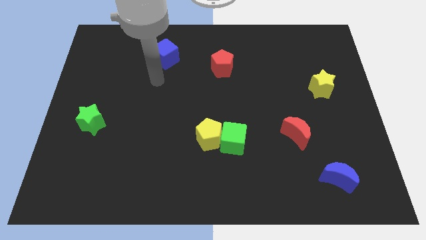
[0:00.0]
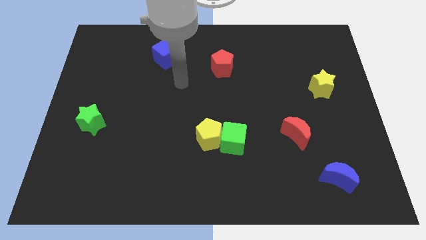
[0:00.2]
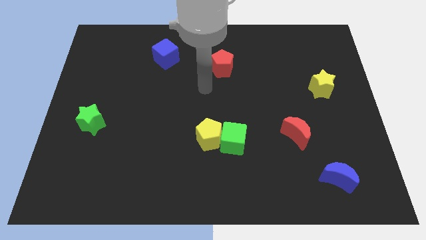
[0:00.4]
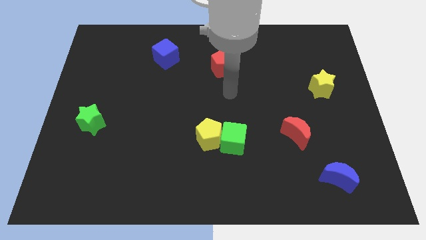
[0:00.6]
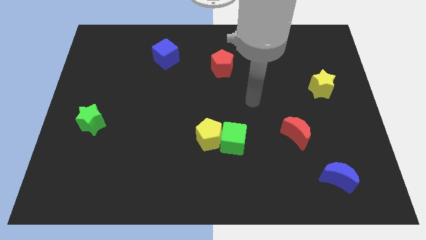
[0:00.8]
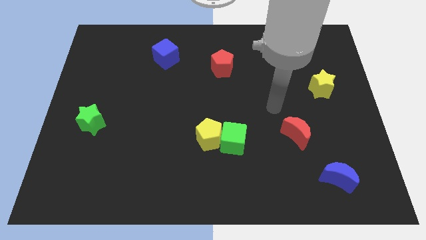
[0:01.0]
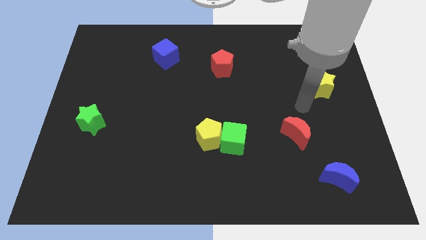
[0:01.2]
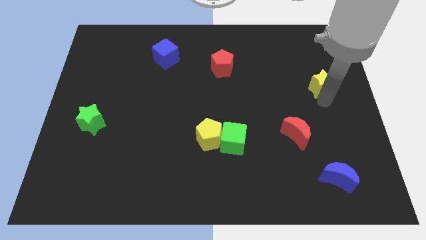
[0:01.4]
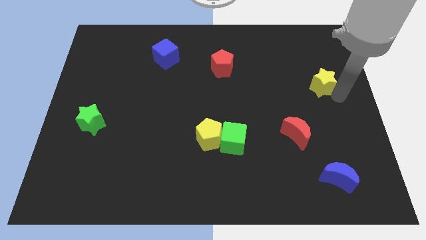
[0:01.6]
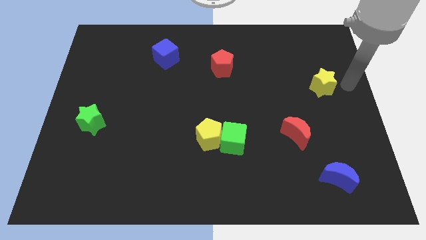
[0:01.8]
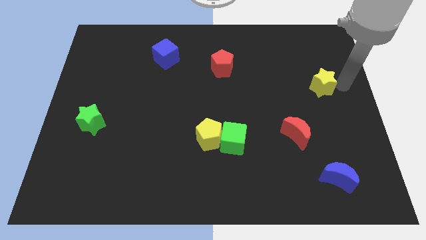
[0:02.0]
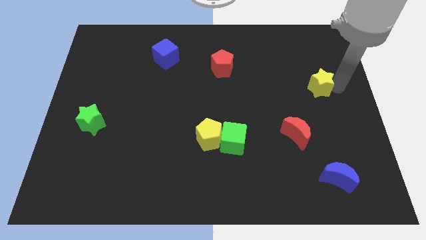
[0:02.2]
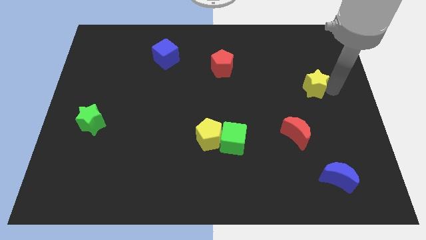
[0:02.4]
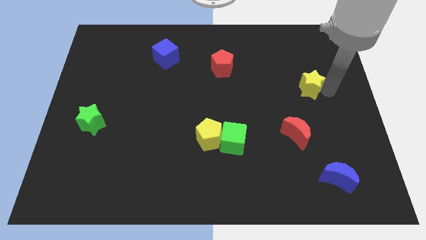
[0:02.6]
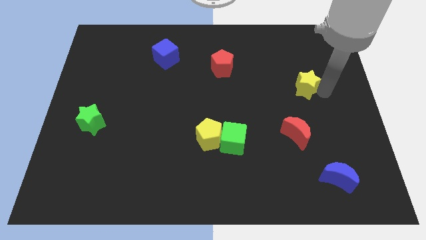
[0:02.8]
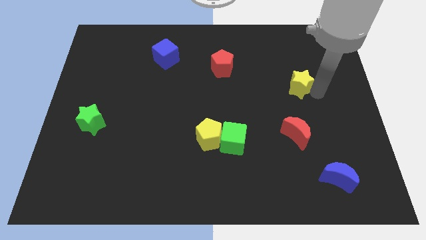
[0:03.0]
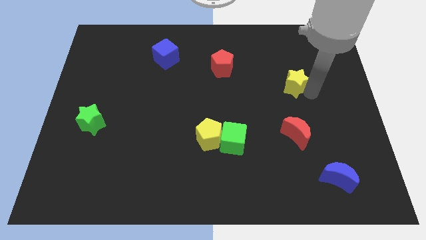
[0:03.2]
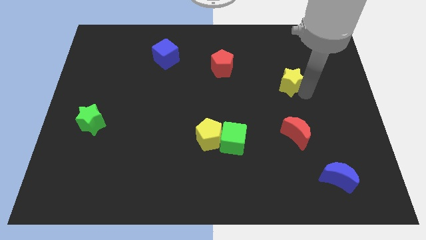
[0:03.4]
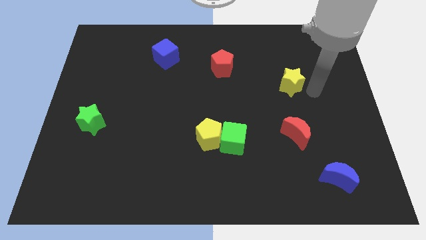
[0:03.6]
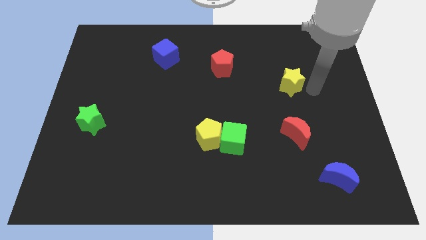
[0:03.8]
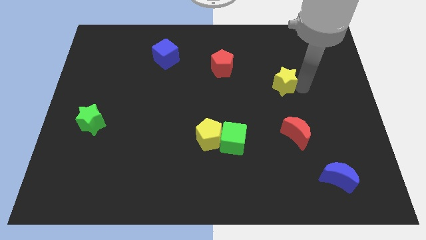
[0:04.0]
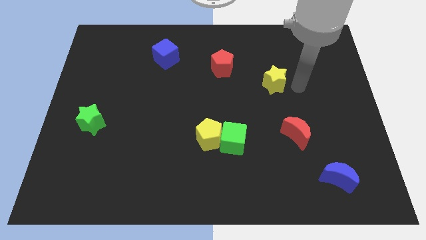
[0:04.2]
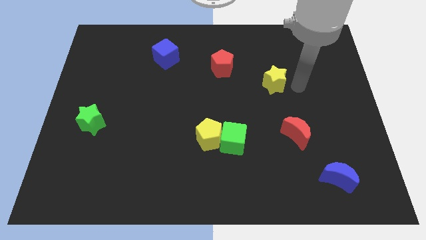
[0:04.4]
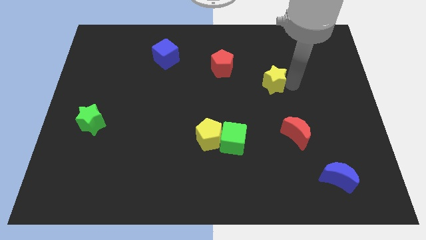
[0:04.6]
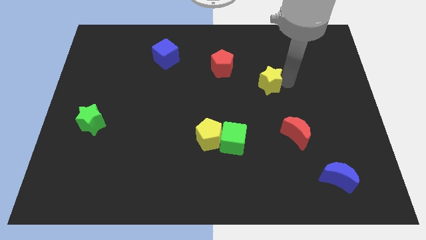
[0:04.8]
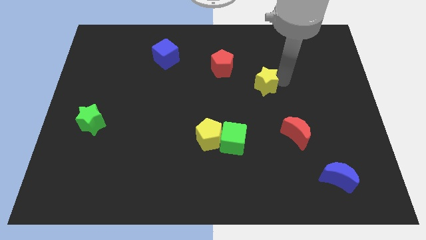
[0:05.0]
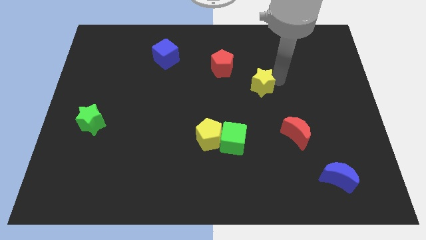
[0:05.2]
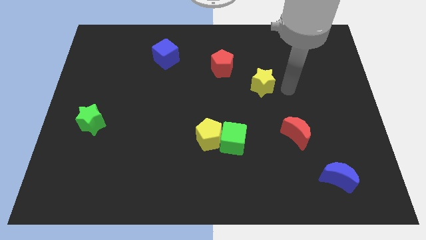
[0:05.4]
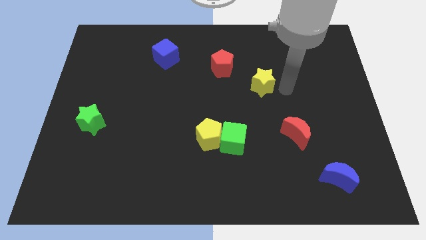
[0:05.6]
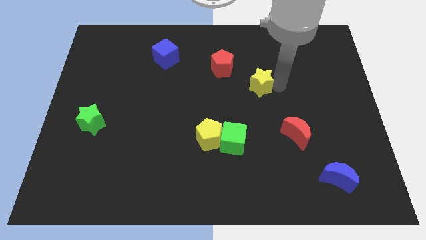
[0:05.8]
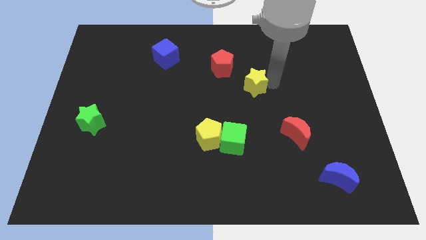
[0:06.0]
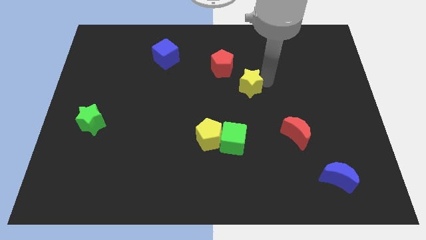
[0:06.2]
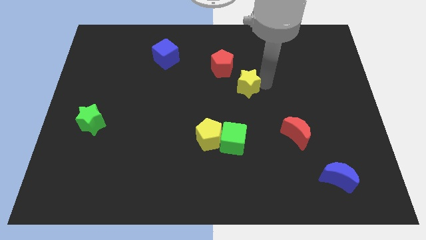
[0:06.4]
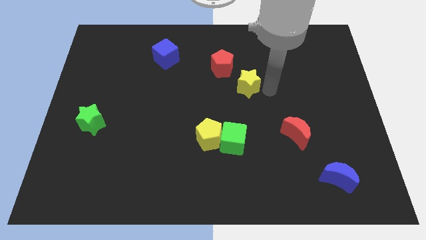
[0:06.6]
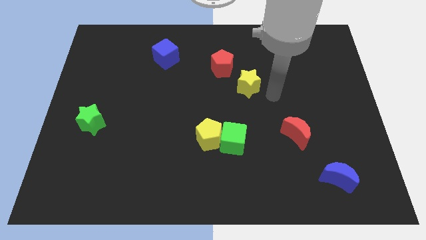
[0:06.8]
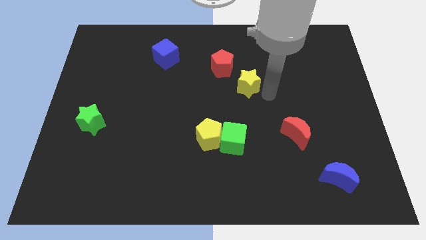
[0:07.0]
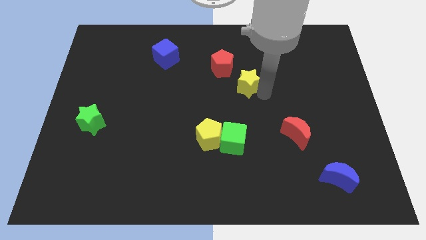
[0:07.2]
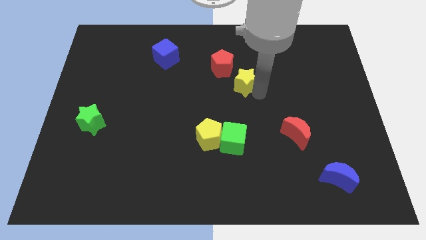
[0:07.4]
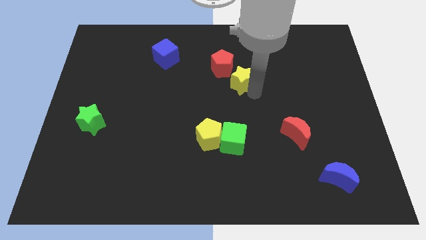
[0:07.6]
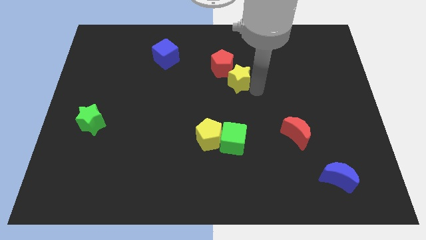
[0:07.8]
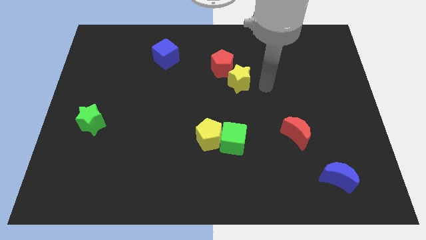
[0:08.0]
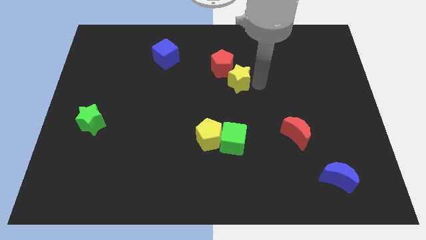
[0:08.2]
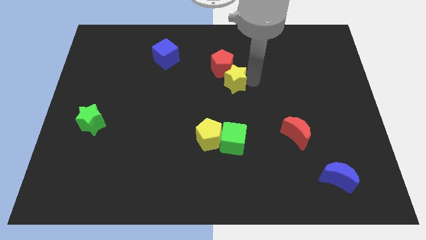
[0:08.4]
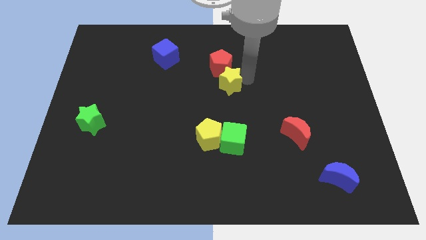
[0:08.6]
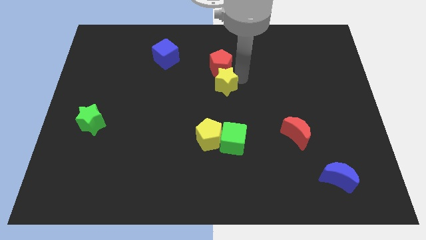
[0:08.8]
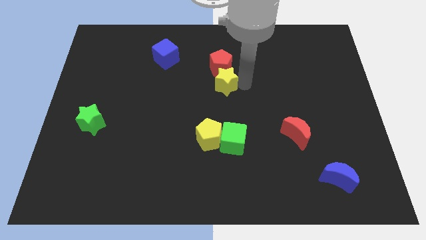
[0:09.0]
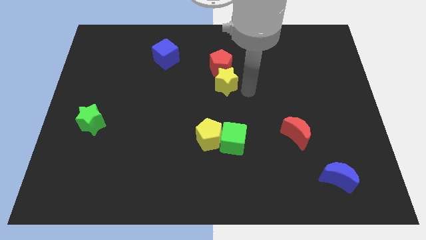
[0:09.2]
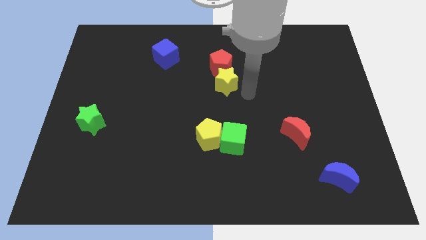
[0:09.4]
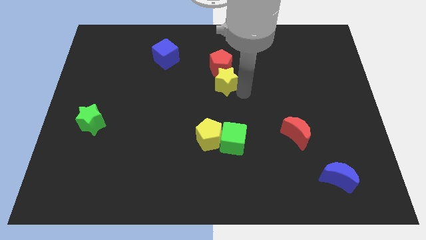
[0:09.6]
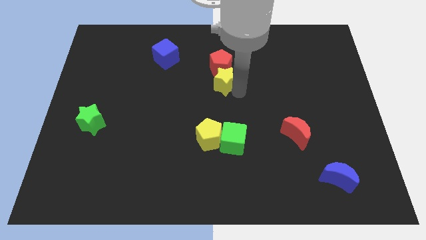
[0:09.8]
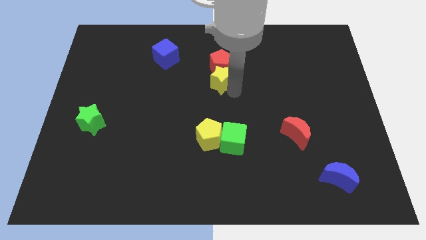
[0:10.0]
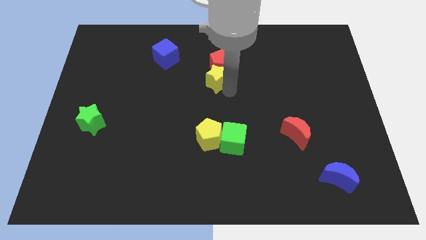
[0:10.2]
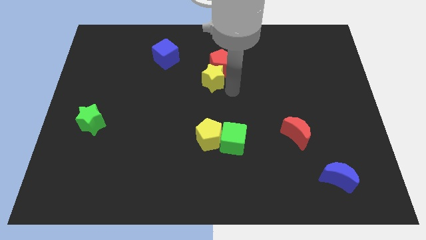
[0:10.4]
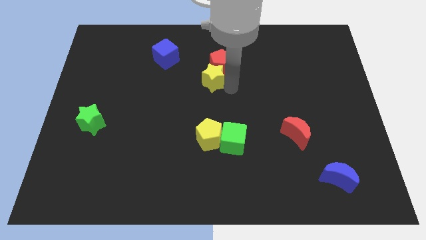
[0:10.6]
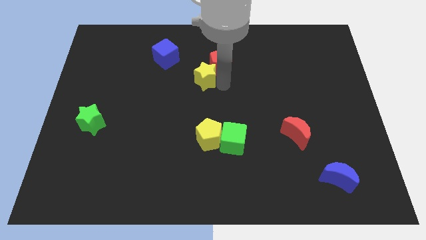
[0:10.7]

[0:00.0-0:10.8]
move the yellow star to the left side of the red pentagon

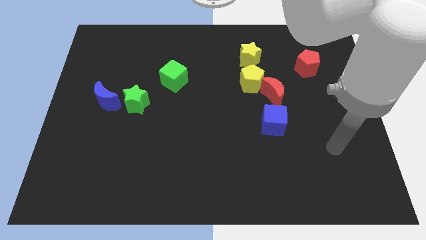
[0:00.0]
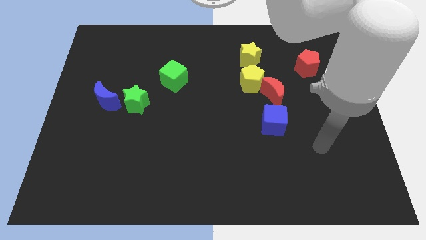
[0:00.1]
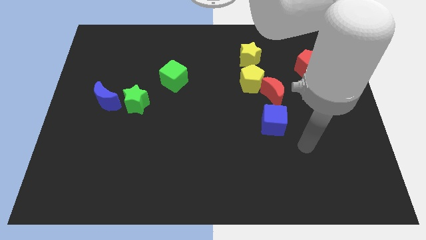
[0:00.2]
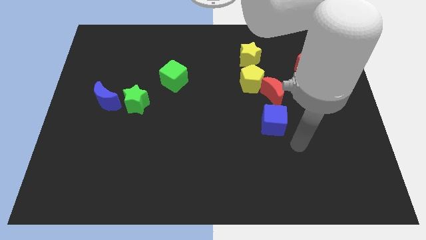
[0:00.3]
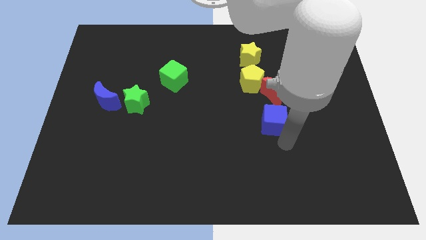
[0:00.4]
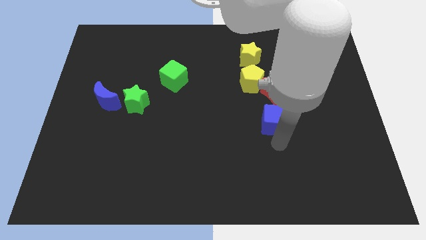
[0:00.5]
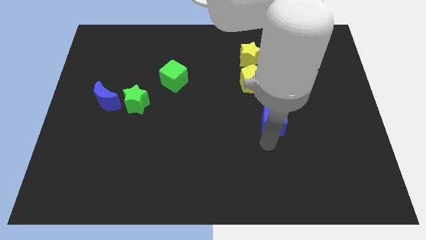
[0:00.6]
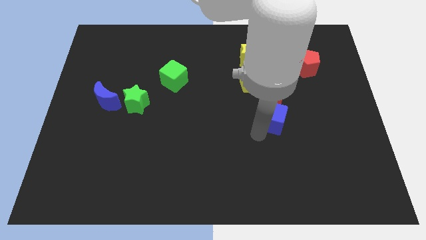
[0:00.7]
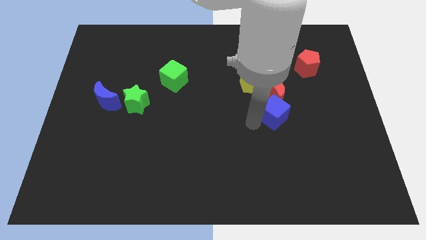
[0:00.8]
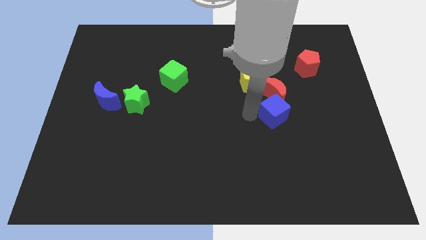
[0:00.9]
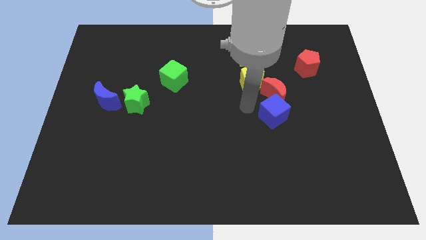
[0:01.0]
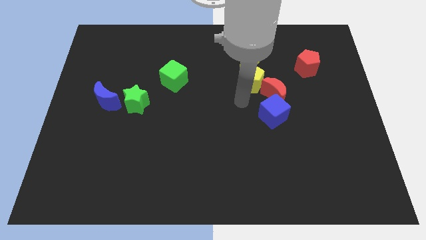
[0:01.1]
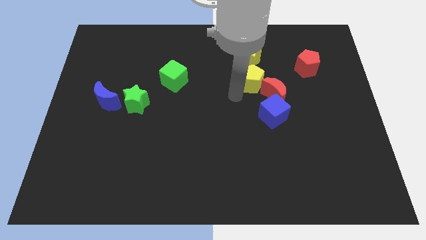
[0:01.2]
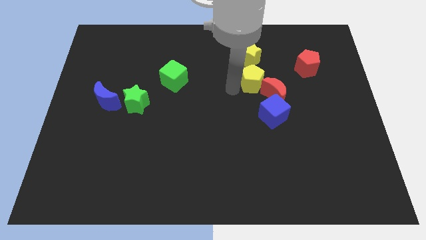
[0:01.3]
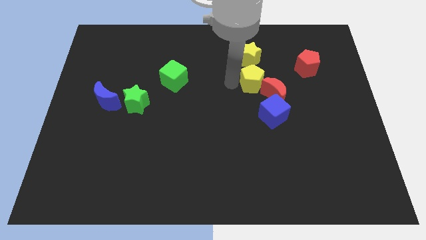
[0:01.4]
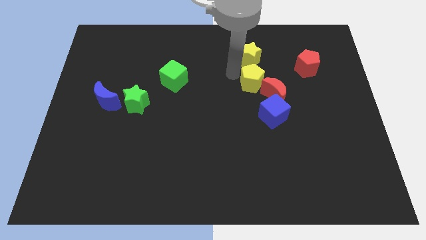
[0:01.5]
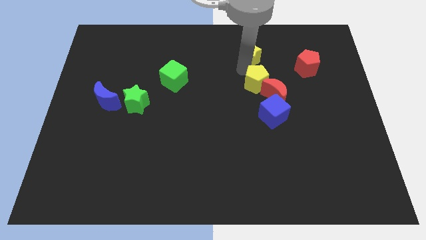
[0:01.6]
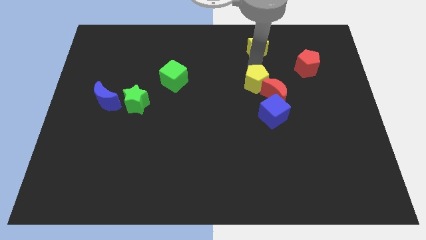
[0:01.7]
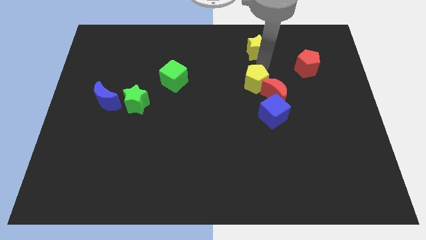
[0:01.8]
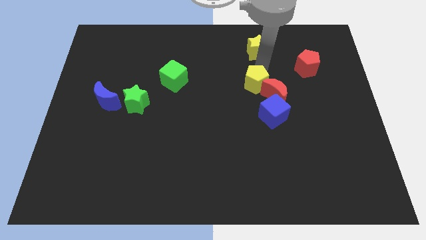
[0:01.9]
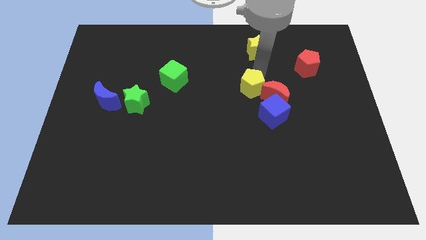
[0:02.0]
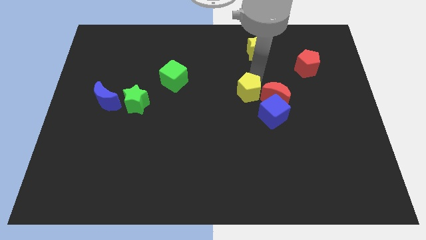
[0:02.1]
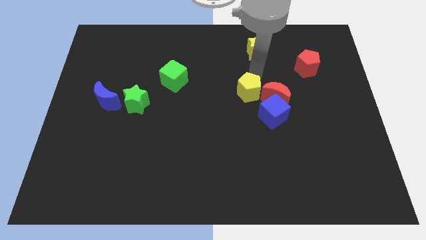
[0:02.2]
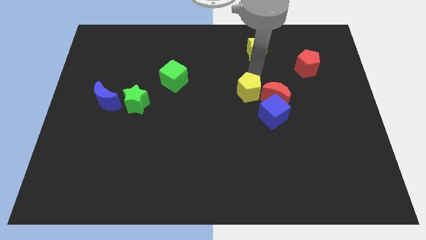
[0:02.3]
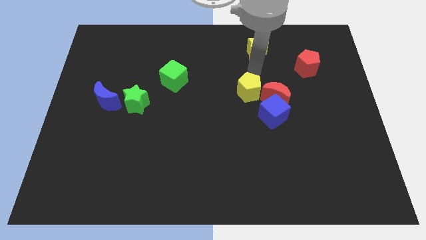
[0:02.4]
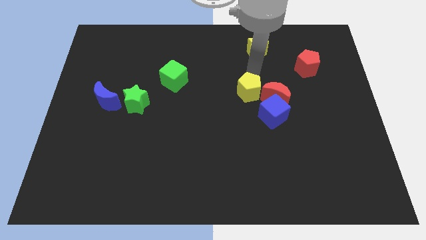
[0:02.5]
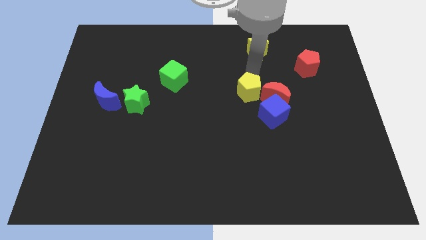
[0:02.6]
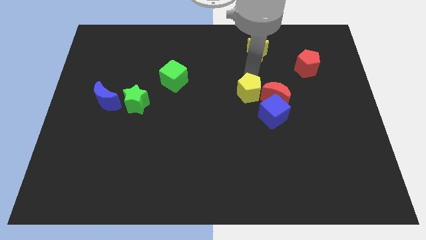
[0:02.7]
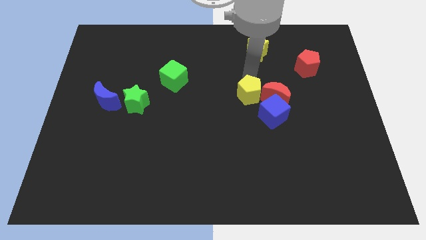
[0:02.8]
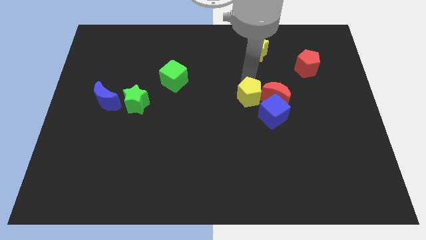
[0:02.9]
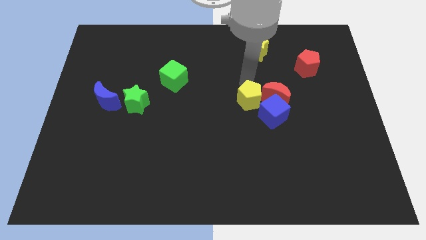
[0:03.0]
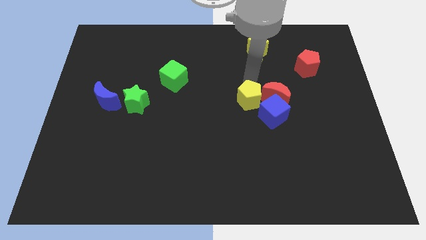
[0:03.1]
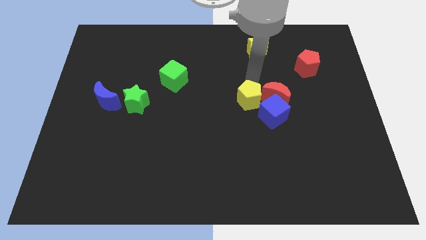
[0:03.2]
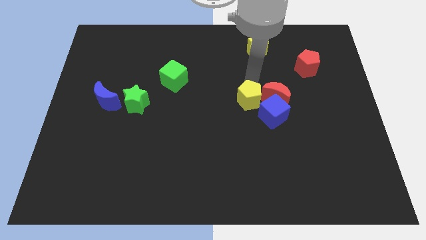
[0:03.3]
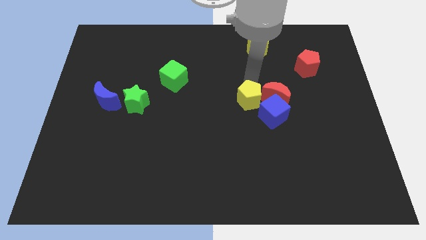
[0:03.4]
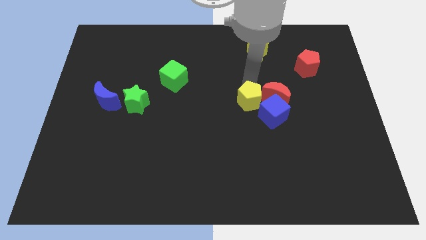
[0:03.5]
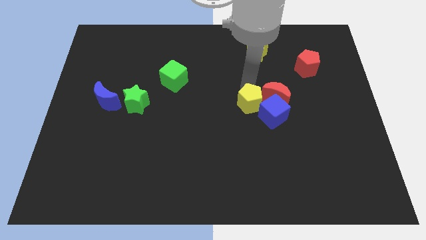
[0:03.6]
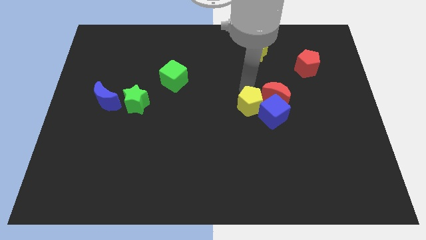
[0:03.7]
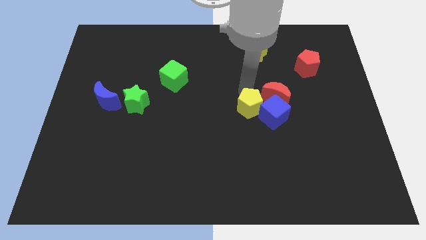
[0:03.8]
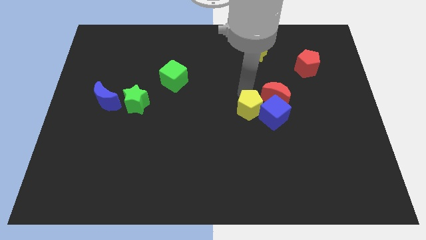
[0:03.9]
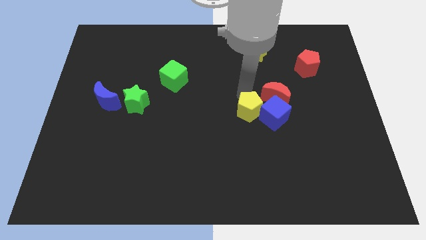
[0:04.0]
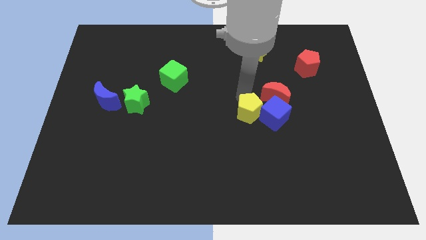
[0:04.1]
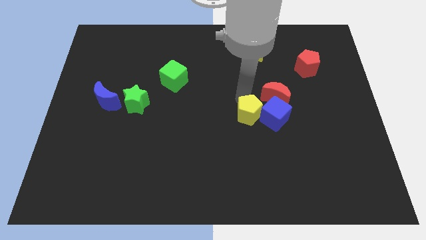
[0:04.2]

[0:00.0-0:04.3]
put the yellow pentagon to the bottom left of the blue cube
